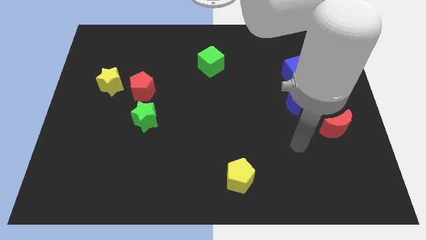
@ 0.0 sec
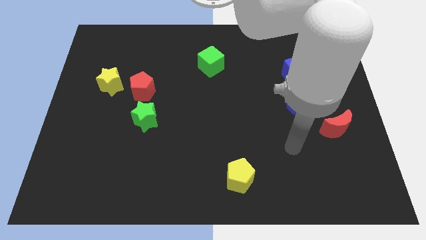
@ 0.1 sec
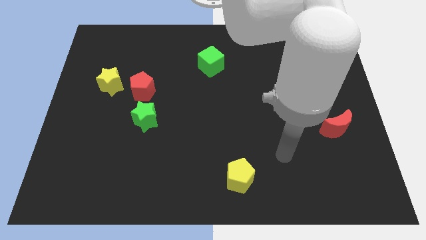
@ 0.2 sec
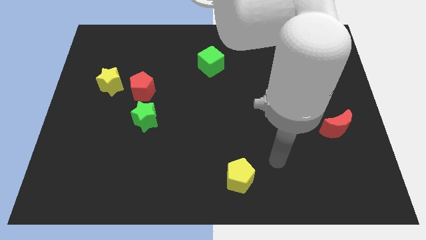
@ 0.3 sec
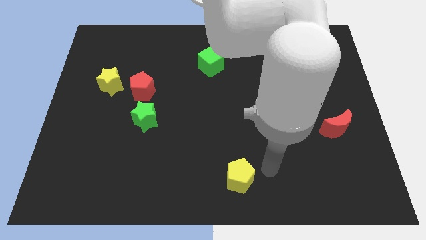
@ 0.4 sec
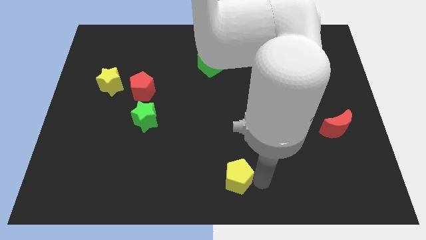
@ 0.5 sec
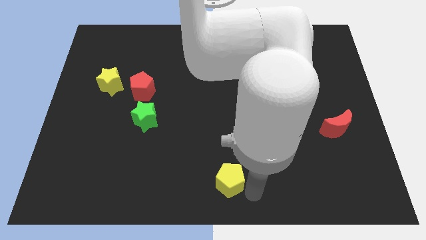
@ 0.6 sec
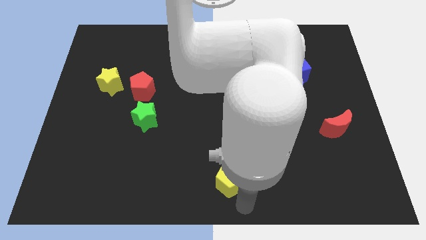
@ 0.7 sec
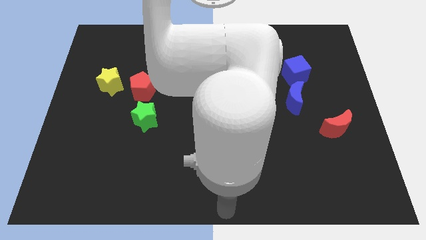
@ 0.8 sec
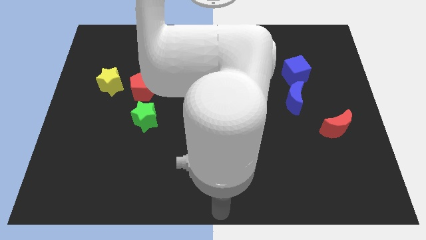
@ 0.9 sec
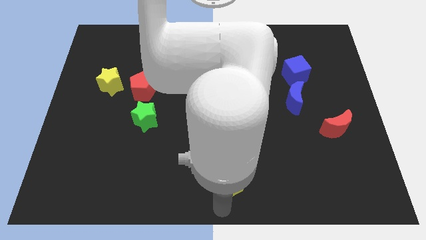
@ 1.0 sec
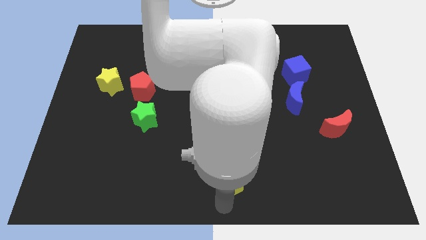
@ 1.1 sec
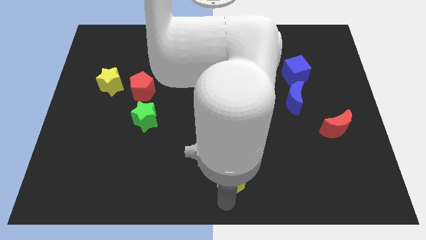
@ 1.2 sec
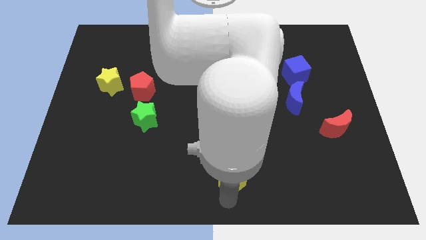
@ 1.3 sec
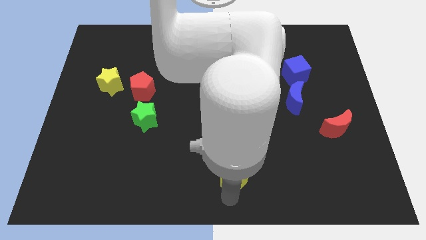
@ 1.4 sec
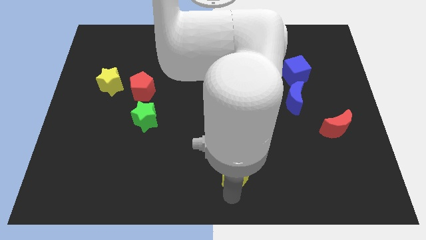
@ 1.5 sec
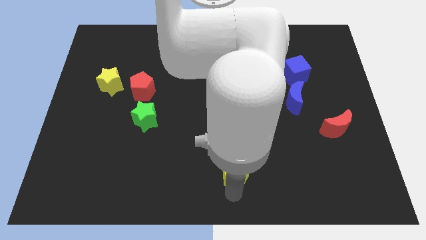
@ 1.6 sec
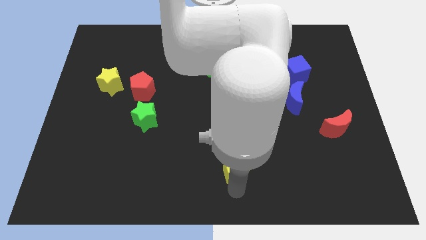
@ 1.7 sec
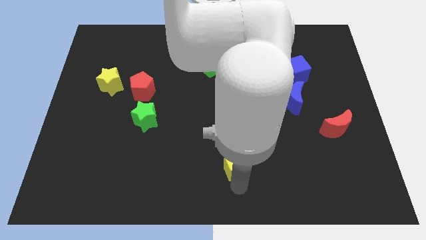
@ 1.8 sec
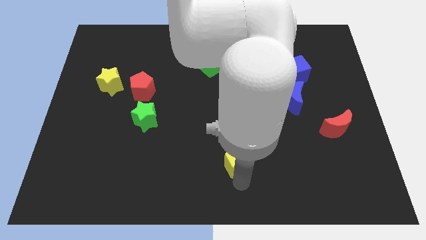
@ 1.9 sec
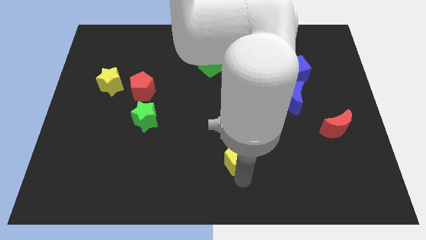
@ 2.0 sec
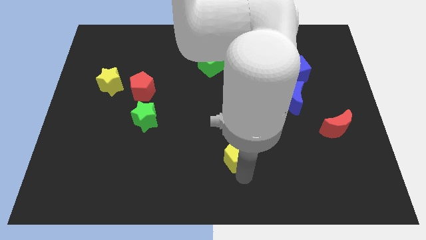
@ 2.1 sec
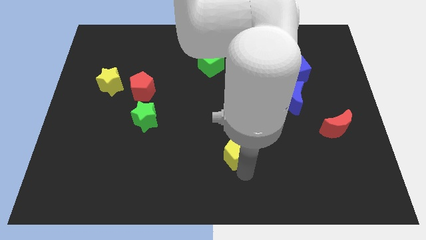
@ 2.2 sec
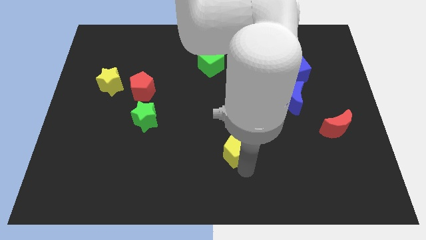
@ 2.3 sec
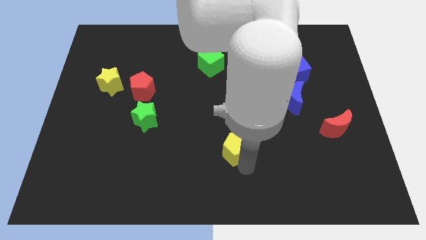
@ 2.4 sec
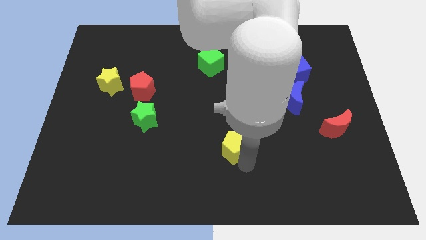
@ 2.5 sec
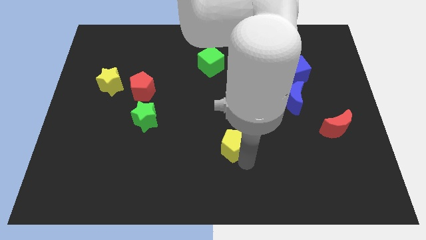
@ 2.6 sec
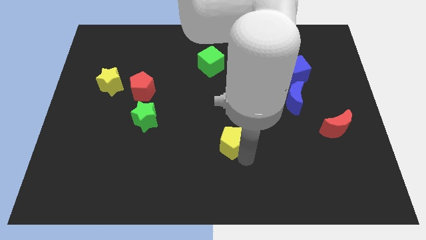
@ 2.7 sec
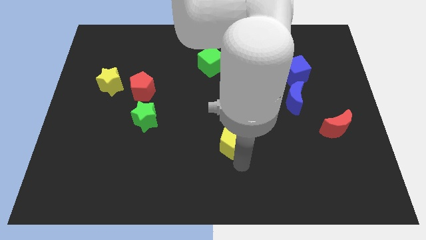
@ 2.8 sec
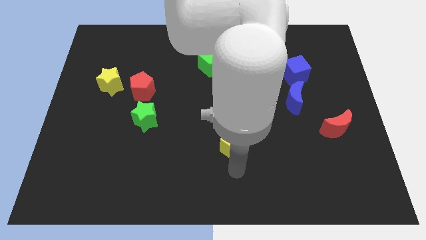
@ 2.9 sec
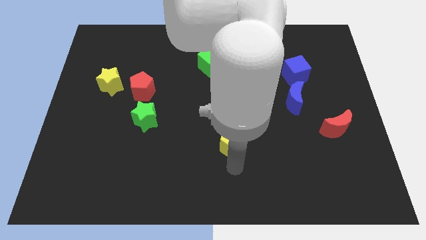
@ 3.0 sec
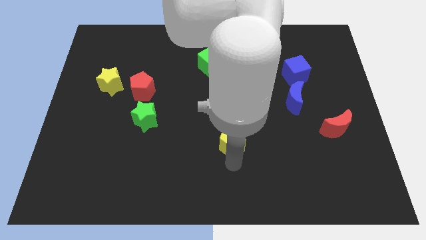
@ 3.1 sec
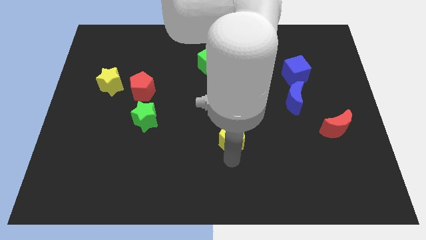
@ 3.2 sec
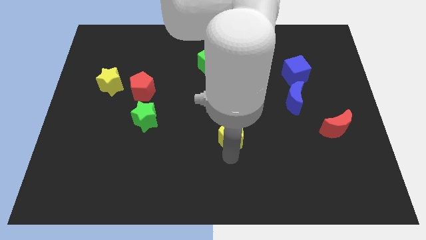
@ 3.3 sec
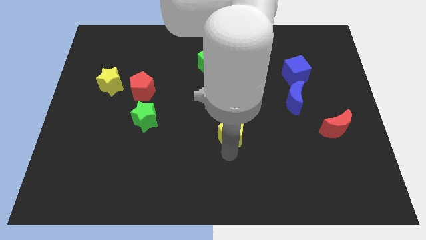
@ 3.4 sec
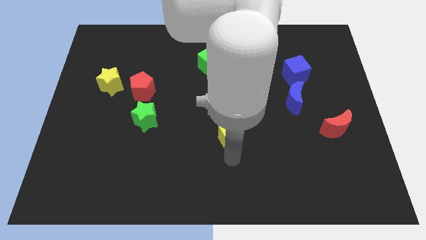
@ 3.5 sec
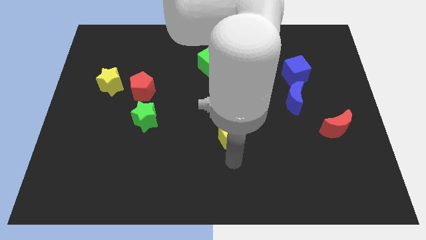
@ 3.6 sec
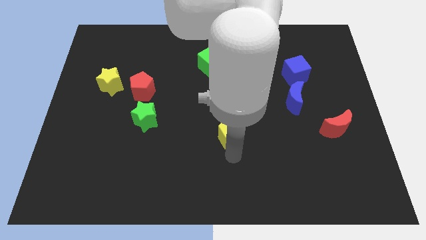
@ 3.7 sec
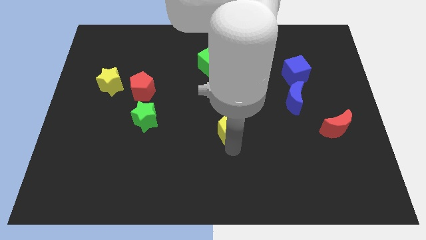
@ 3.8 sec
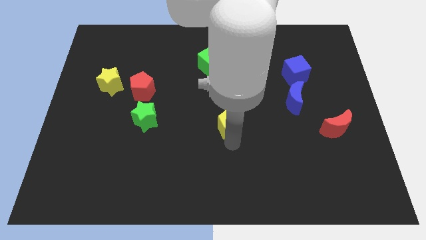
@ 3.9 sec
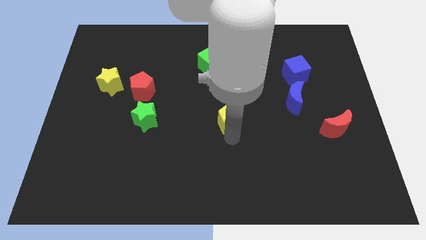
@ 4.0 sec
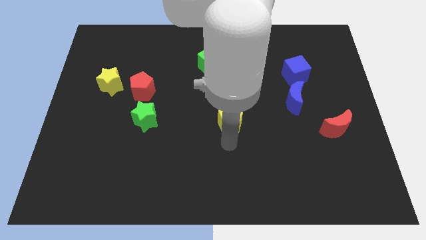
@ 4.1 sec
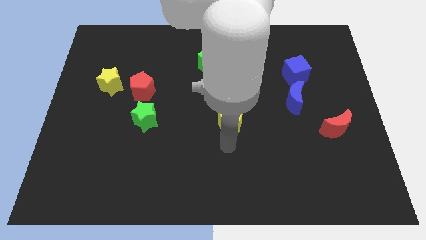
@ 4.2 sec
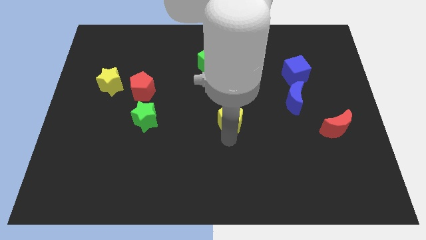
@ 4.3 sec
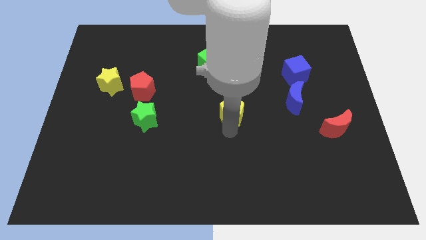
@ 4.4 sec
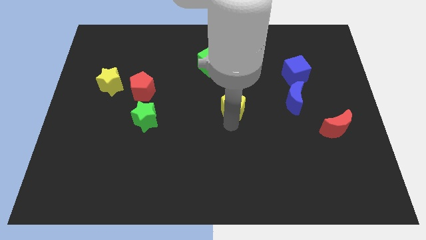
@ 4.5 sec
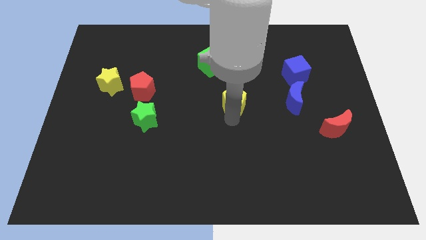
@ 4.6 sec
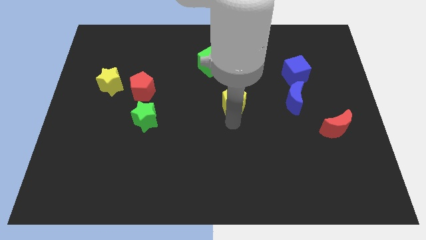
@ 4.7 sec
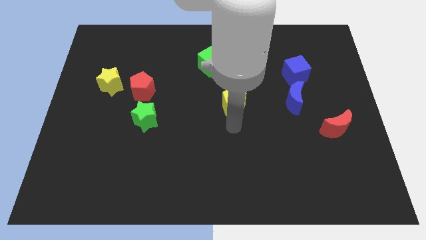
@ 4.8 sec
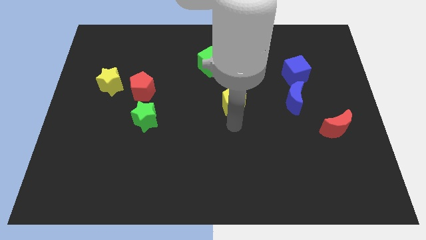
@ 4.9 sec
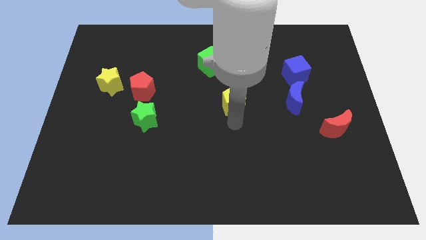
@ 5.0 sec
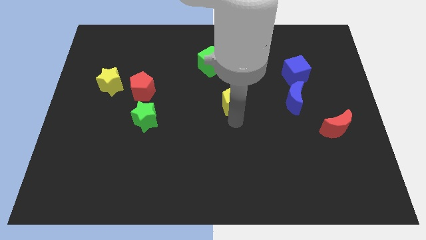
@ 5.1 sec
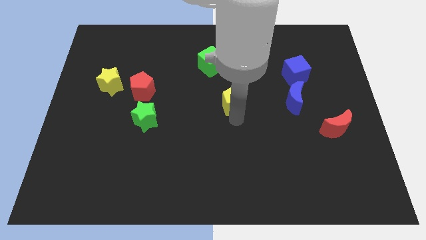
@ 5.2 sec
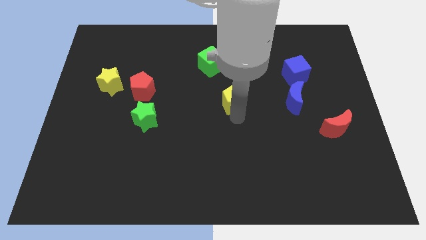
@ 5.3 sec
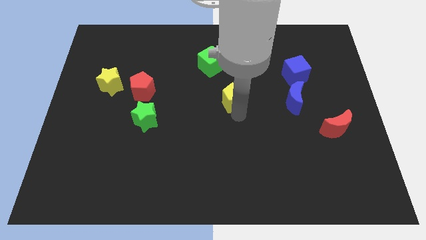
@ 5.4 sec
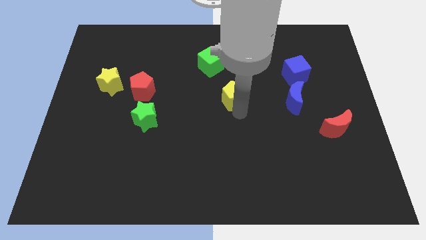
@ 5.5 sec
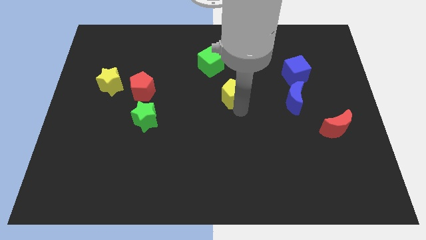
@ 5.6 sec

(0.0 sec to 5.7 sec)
push the yellow pentagon to the bottom right of the green cube
